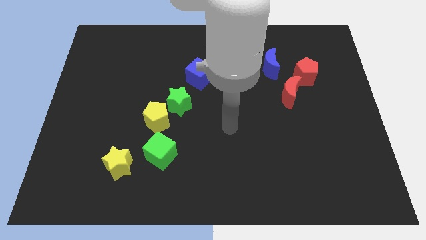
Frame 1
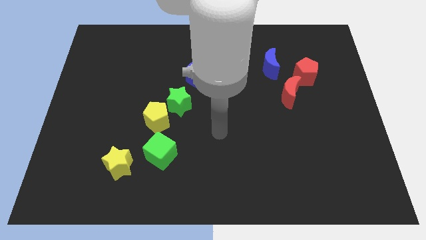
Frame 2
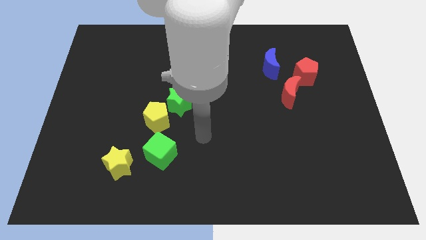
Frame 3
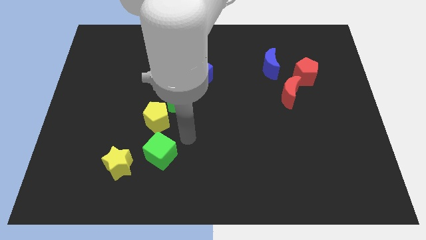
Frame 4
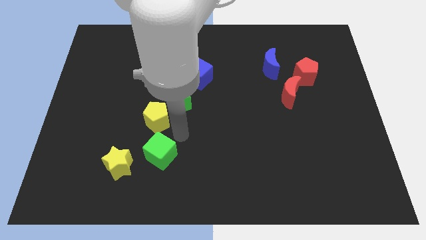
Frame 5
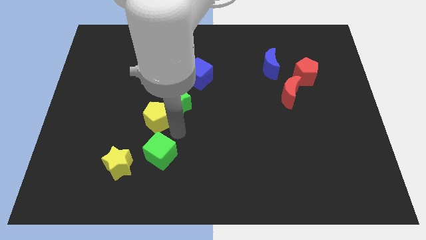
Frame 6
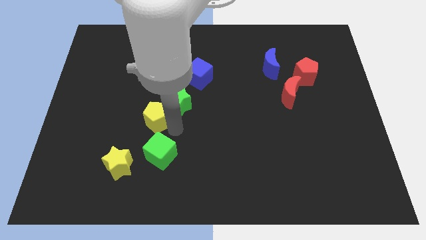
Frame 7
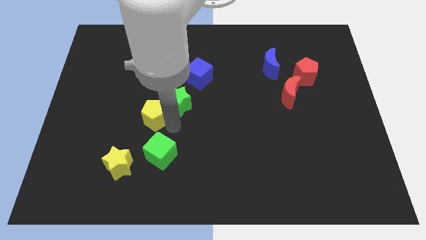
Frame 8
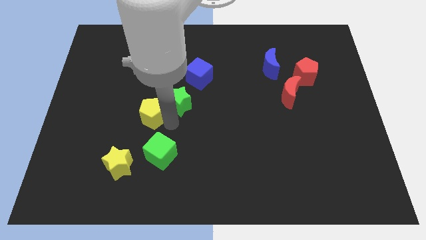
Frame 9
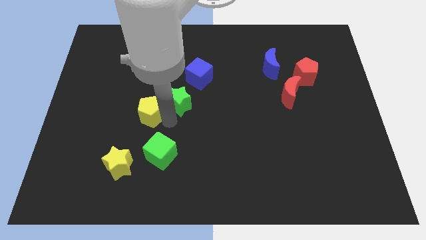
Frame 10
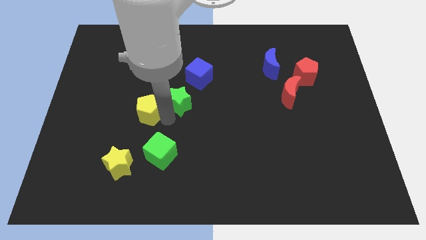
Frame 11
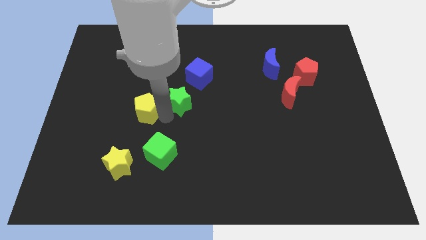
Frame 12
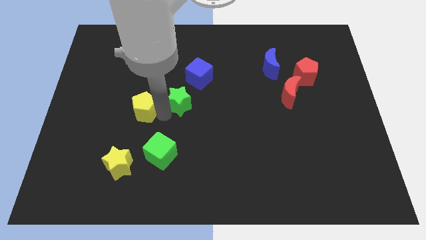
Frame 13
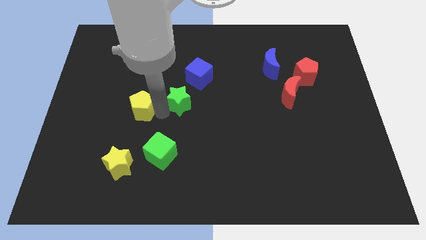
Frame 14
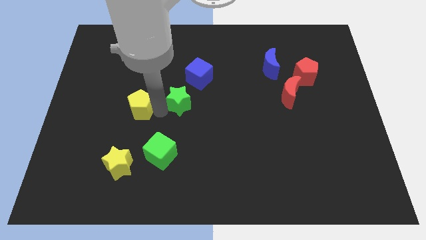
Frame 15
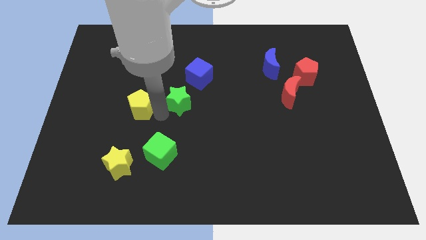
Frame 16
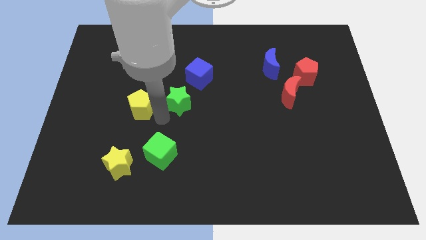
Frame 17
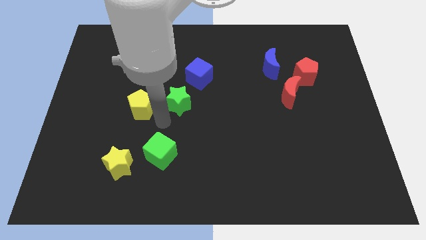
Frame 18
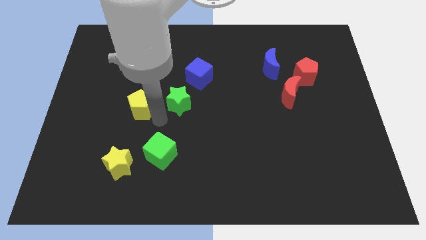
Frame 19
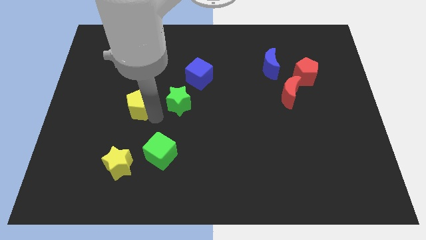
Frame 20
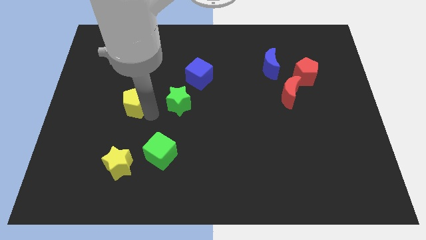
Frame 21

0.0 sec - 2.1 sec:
pull the yellow pentagon apart from the green star and green cube

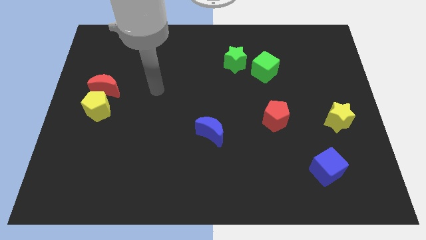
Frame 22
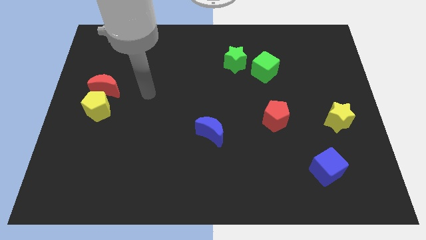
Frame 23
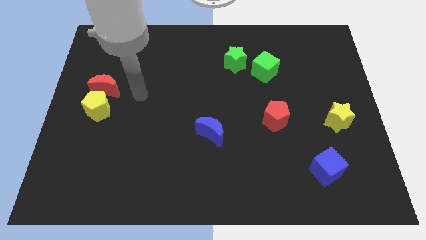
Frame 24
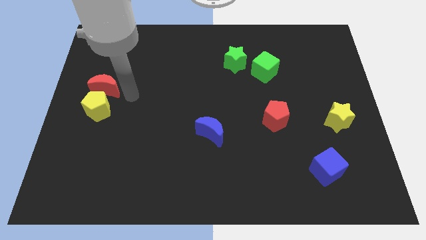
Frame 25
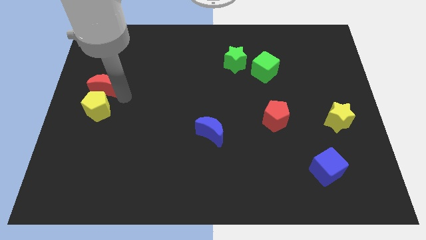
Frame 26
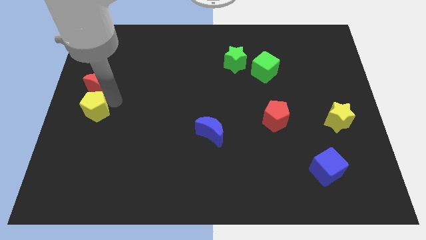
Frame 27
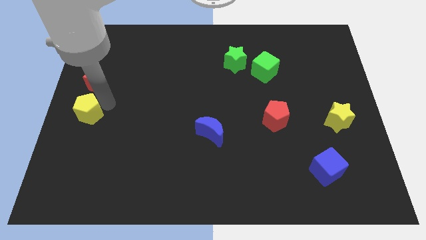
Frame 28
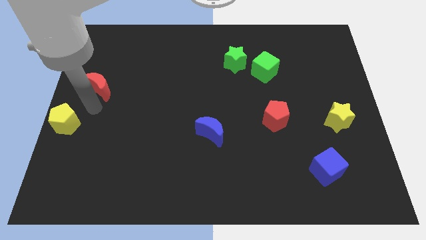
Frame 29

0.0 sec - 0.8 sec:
move the red moon away from the yellow pentagon

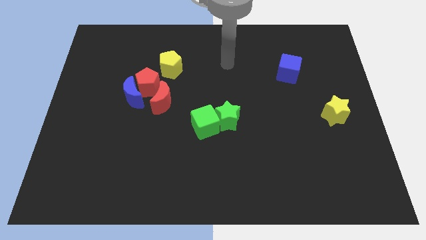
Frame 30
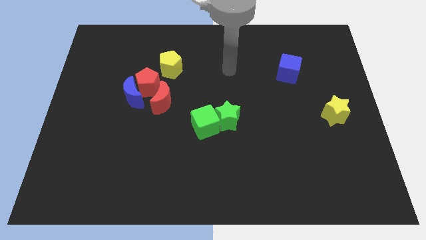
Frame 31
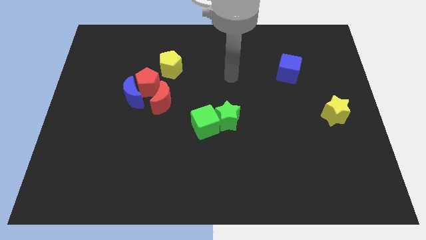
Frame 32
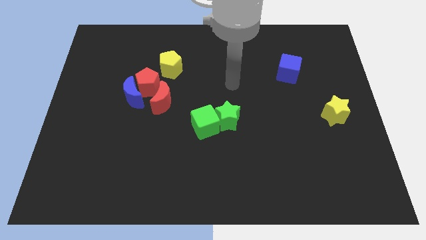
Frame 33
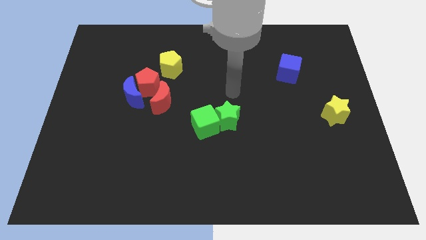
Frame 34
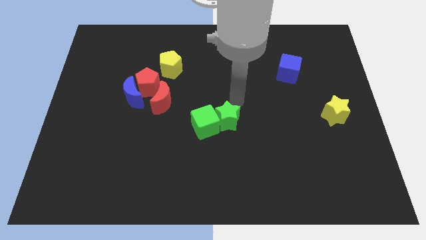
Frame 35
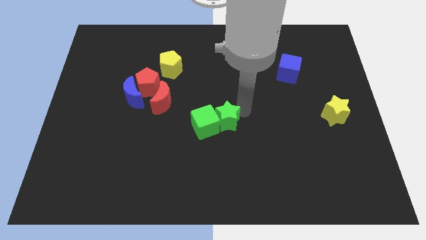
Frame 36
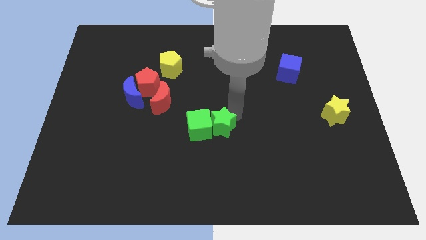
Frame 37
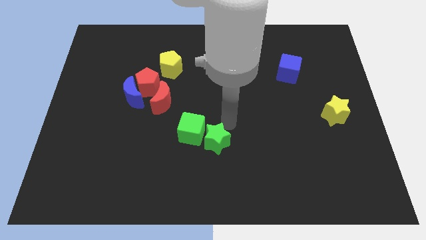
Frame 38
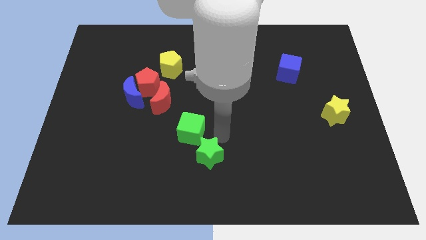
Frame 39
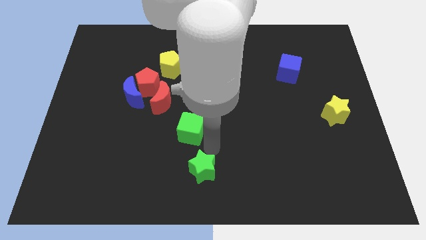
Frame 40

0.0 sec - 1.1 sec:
separate the green cube from the green star

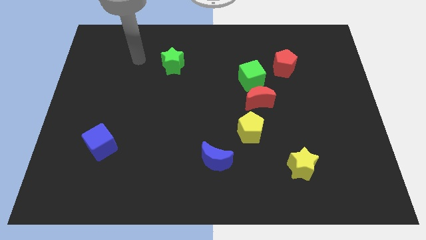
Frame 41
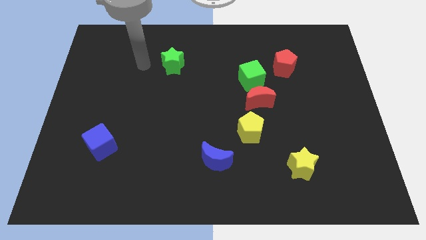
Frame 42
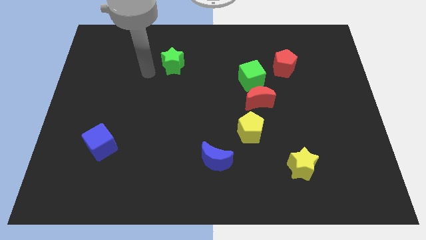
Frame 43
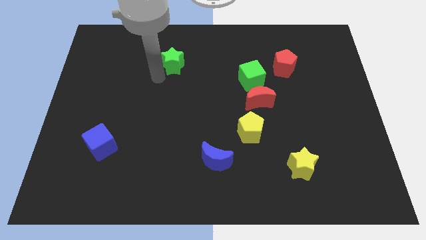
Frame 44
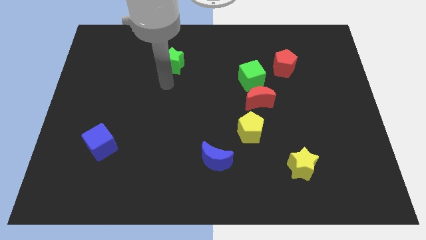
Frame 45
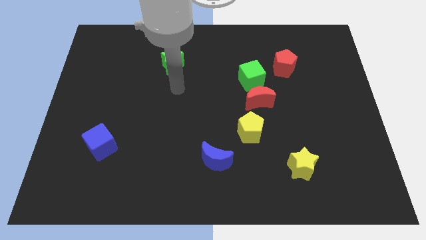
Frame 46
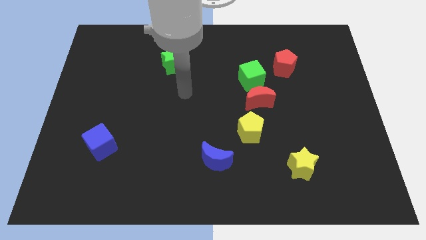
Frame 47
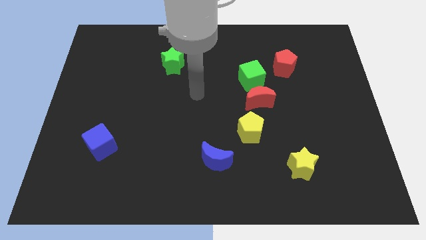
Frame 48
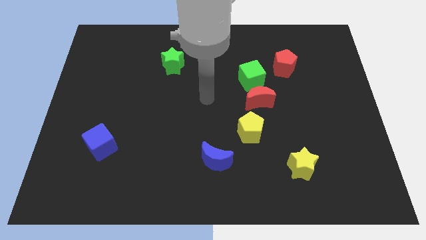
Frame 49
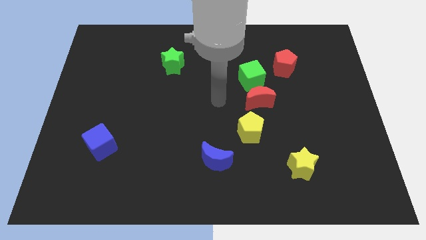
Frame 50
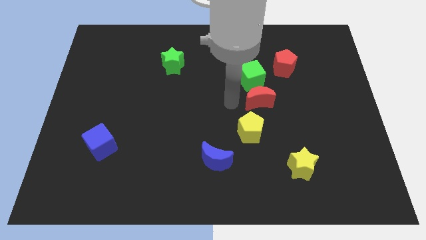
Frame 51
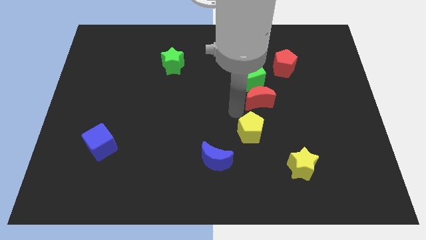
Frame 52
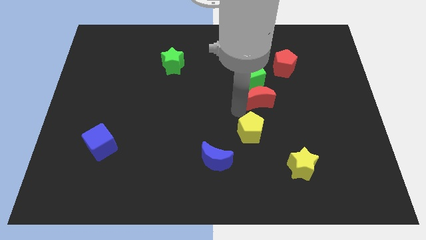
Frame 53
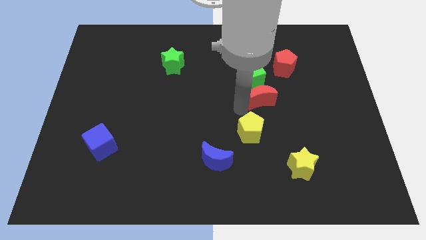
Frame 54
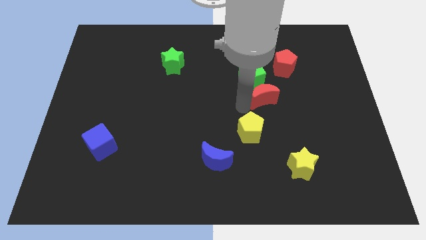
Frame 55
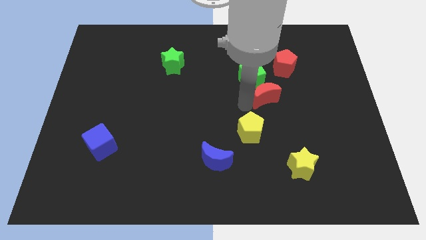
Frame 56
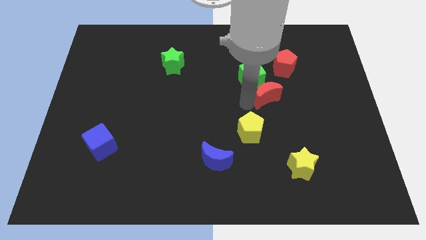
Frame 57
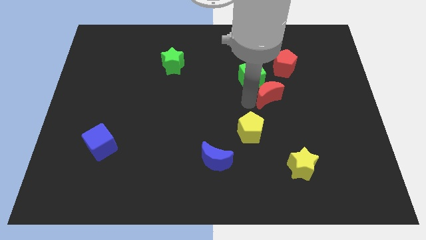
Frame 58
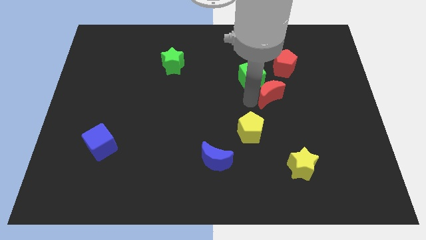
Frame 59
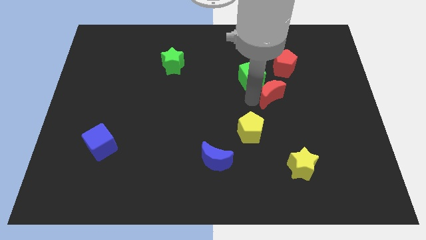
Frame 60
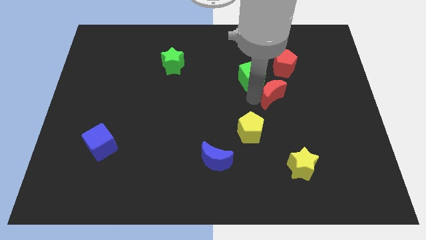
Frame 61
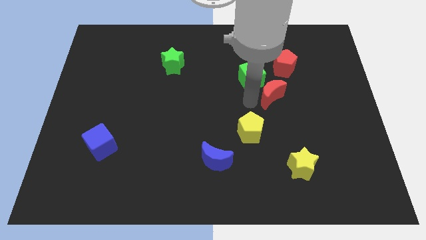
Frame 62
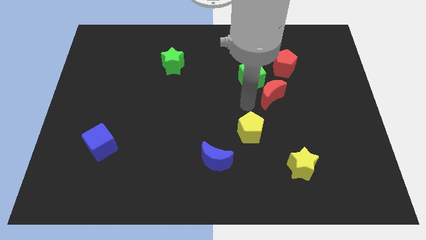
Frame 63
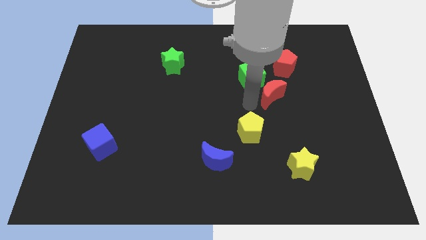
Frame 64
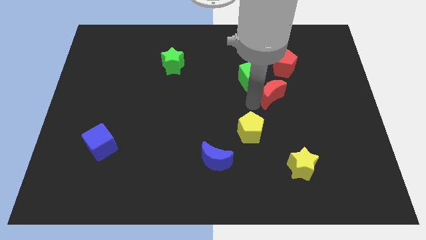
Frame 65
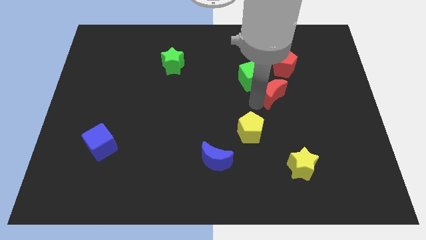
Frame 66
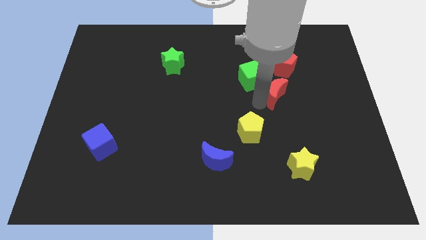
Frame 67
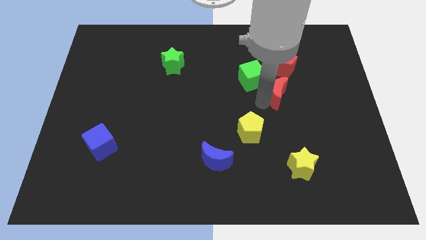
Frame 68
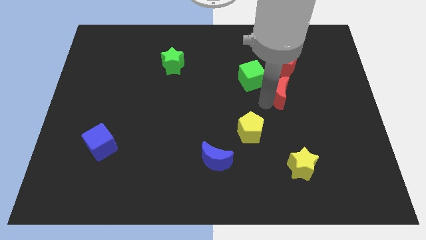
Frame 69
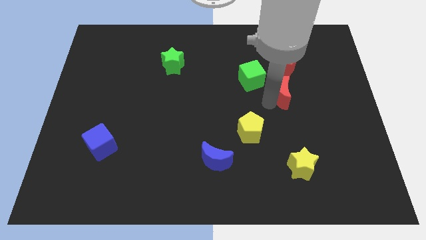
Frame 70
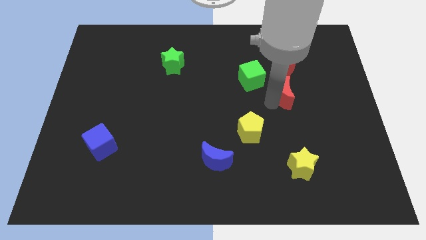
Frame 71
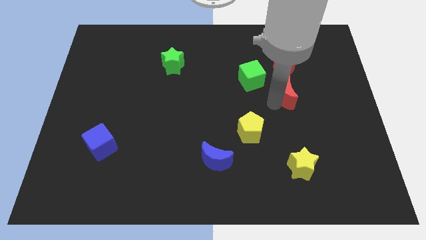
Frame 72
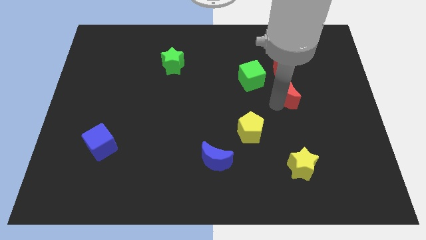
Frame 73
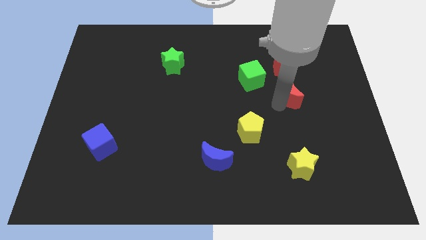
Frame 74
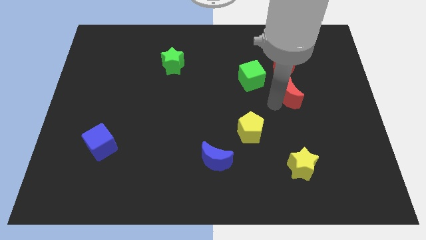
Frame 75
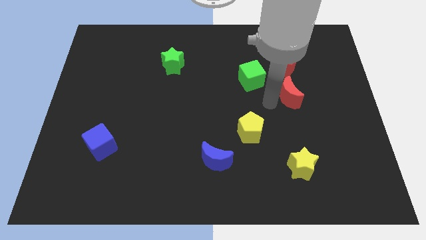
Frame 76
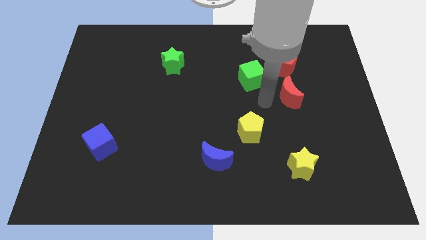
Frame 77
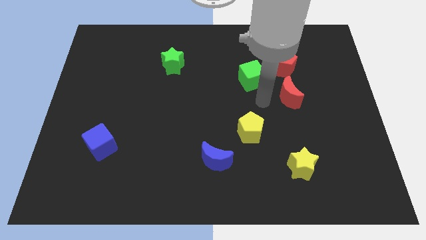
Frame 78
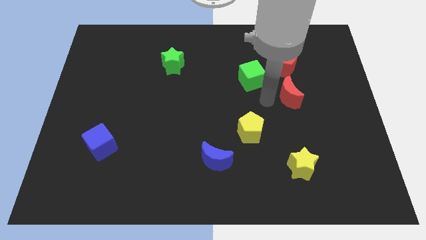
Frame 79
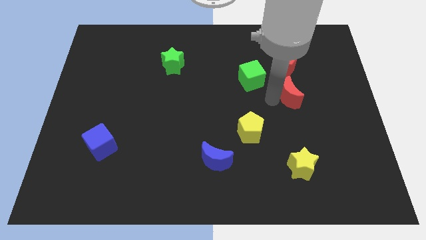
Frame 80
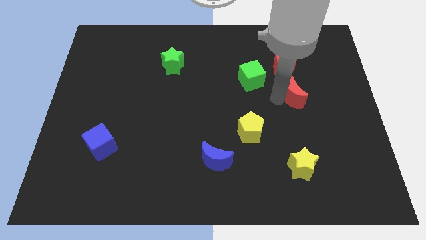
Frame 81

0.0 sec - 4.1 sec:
separate the red moon from the green cube and yellow pentagon

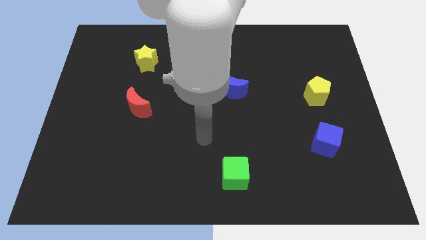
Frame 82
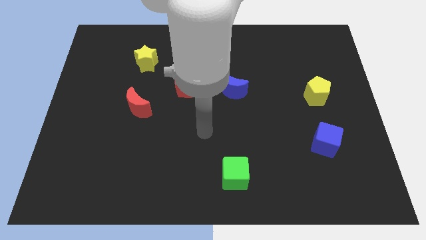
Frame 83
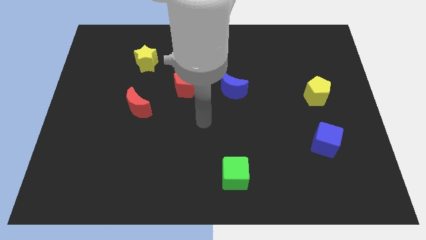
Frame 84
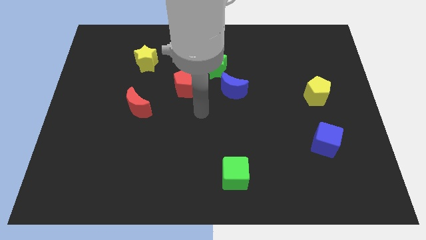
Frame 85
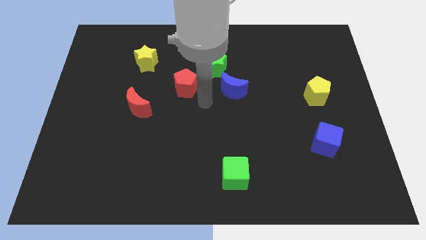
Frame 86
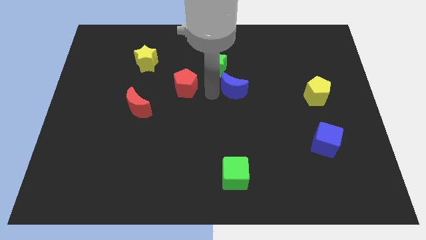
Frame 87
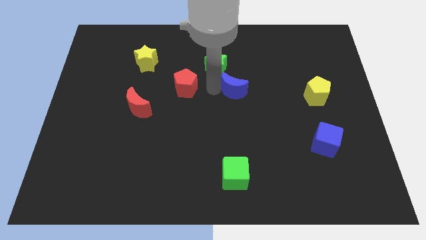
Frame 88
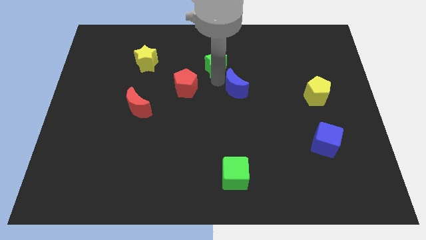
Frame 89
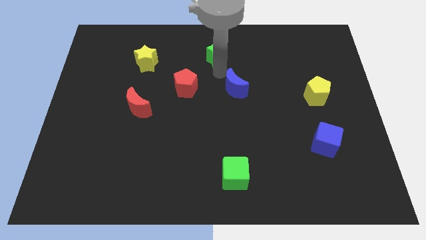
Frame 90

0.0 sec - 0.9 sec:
pull the blue moon apart from the green star

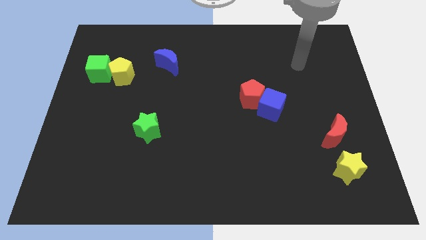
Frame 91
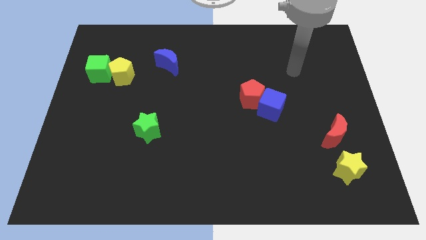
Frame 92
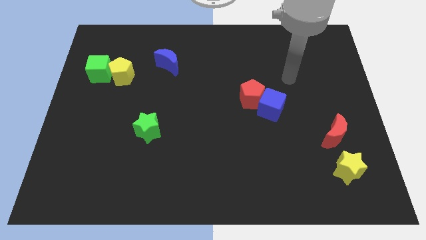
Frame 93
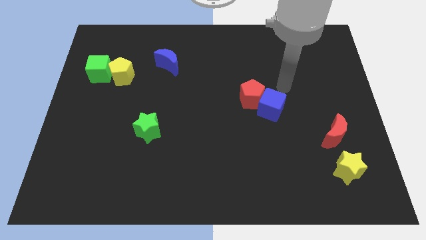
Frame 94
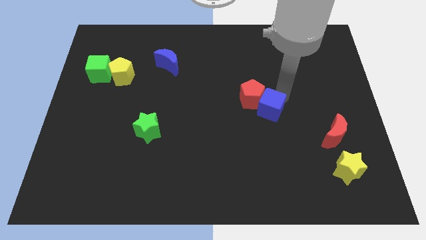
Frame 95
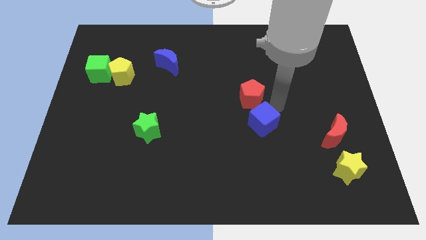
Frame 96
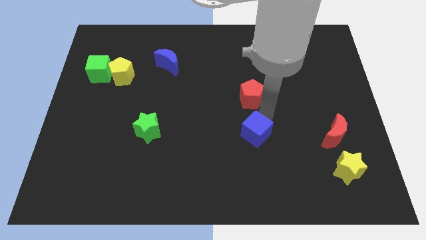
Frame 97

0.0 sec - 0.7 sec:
pull the red pentagon apart from the blue cube
